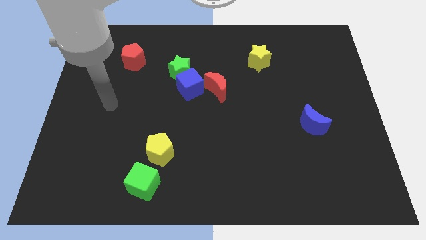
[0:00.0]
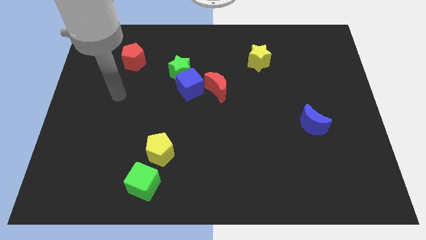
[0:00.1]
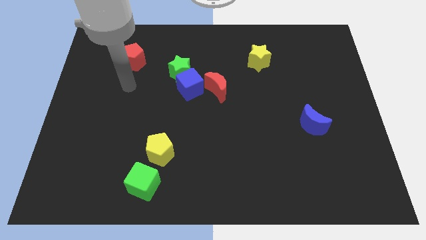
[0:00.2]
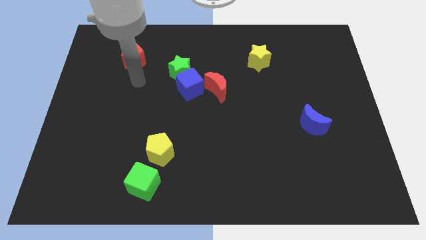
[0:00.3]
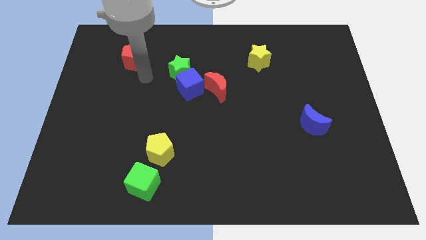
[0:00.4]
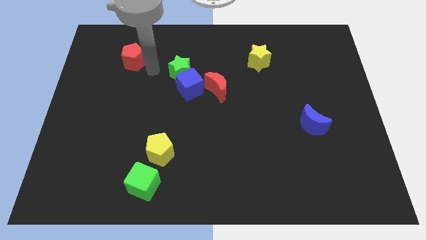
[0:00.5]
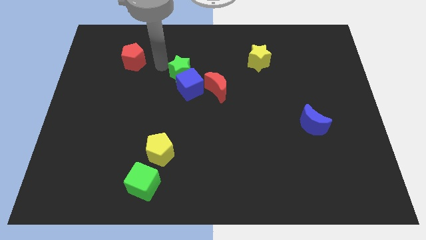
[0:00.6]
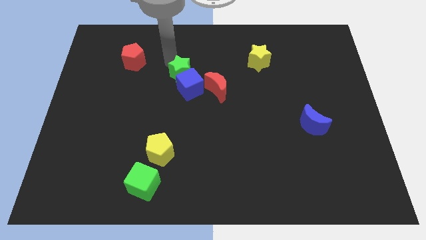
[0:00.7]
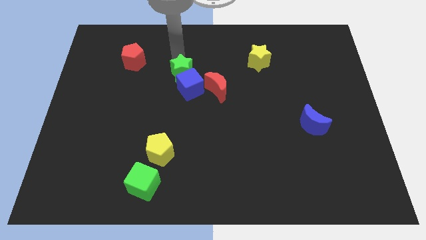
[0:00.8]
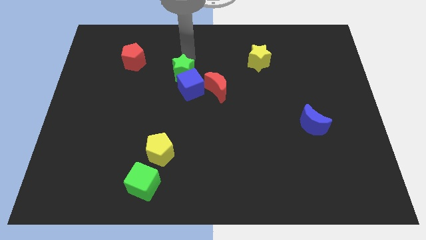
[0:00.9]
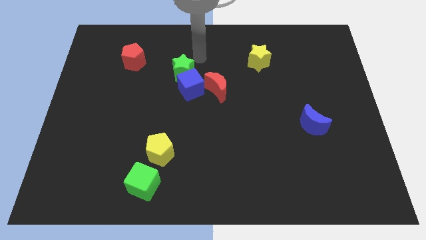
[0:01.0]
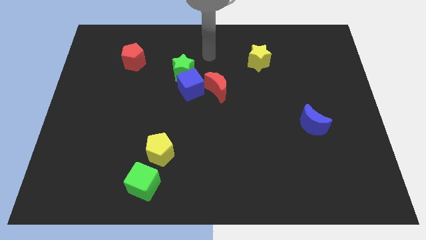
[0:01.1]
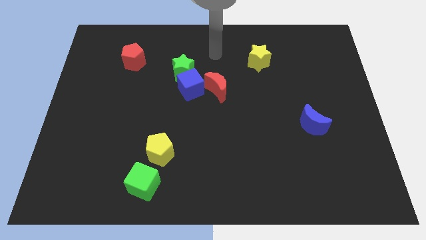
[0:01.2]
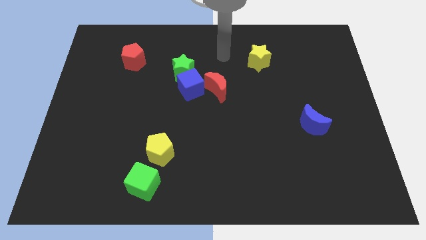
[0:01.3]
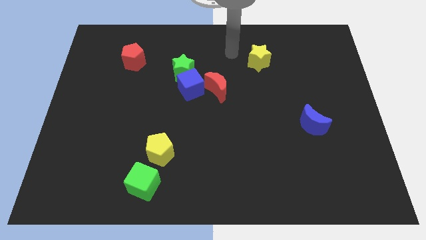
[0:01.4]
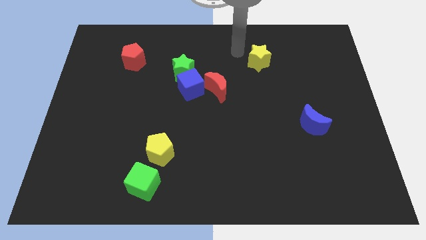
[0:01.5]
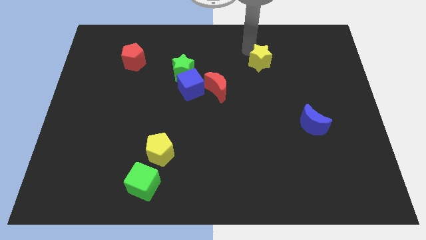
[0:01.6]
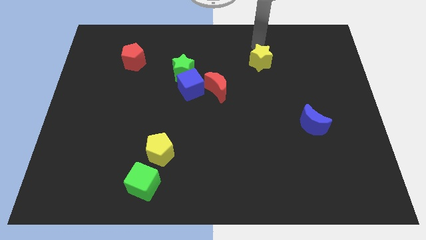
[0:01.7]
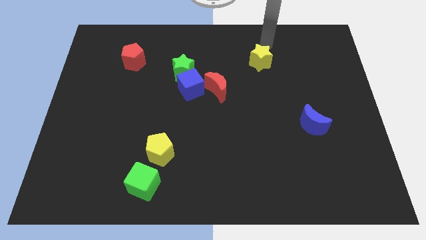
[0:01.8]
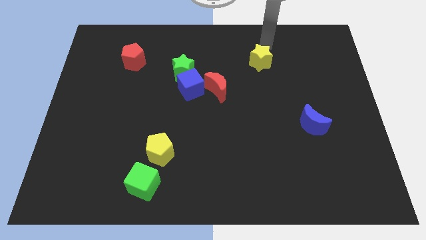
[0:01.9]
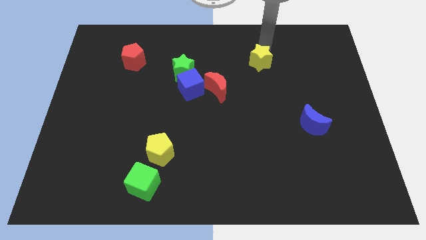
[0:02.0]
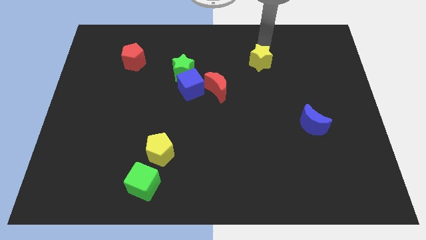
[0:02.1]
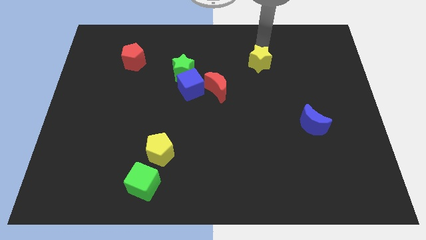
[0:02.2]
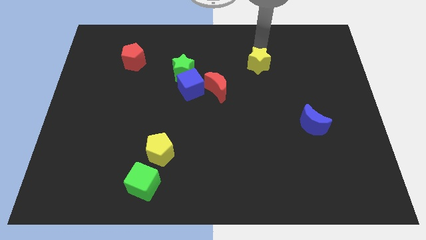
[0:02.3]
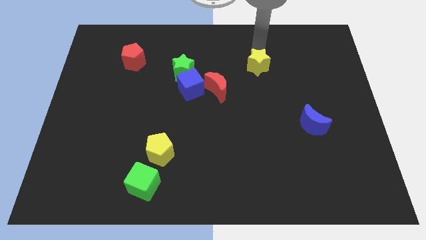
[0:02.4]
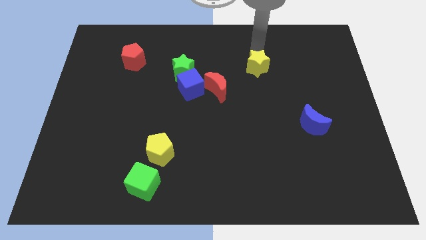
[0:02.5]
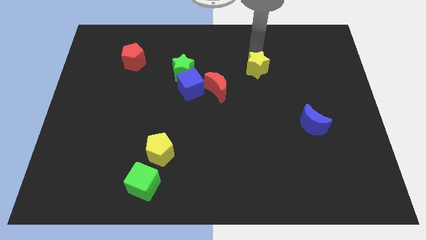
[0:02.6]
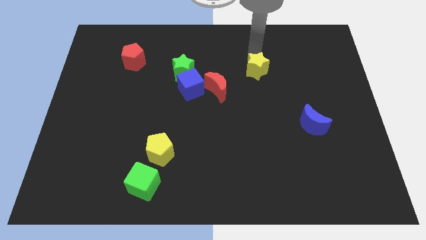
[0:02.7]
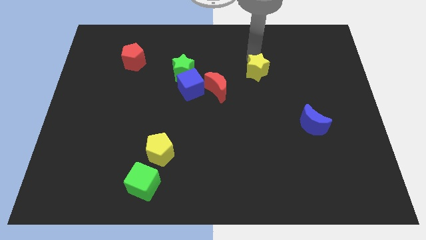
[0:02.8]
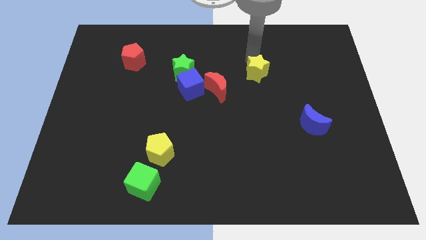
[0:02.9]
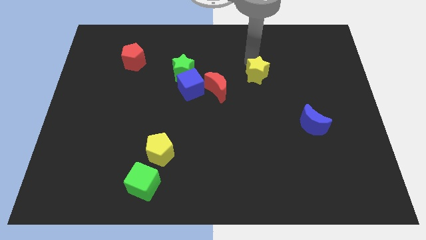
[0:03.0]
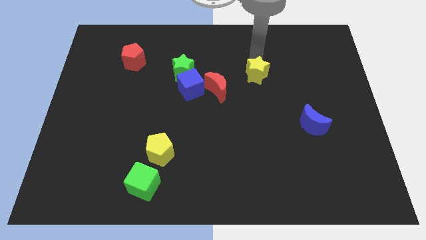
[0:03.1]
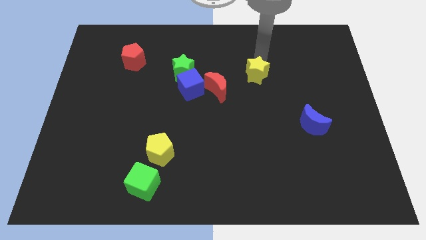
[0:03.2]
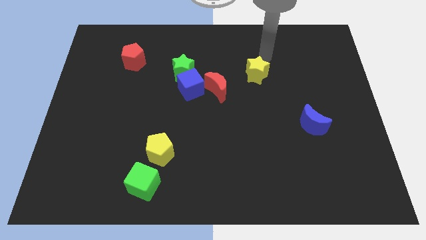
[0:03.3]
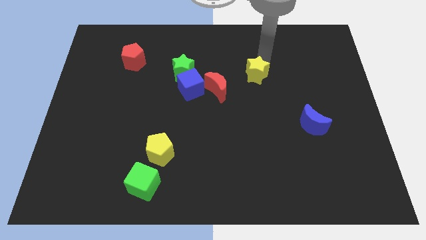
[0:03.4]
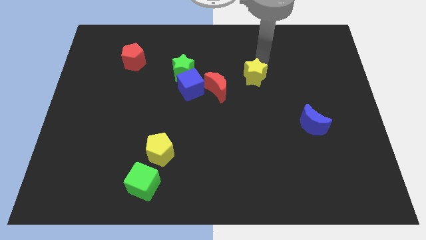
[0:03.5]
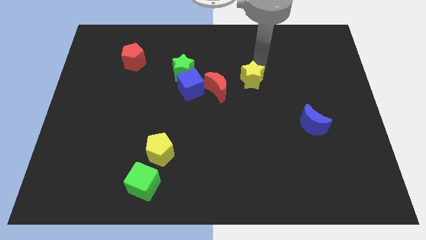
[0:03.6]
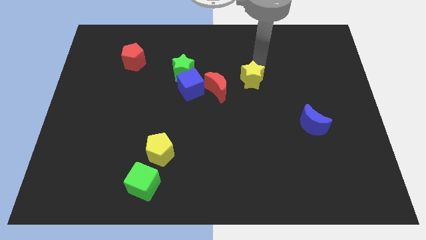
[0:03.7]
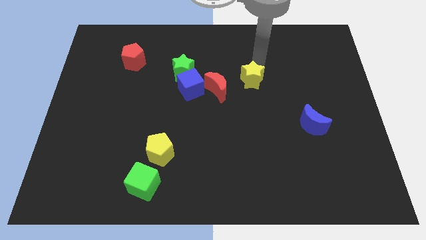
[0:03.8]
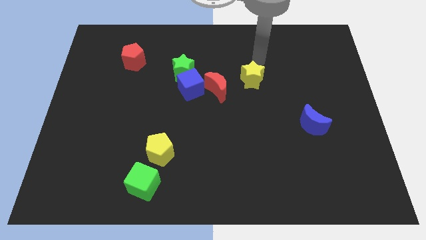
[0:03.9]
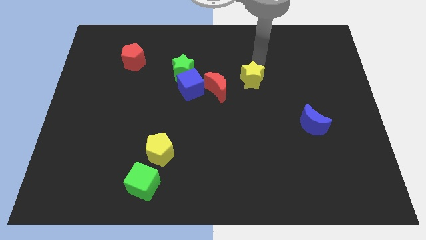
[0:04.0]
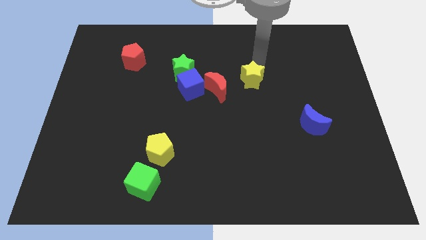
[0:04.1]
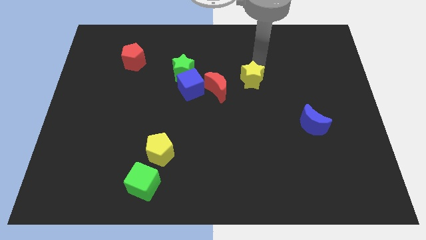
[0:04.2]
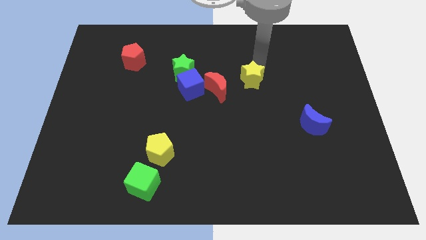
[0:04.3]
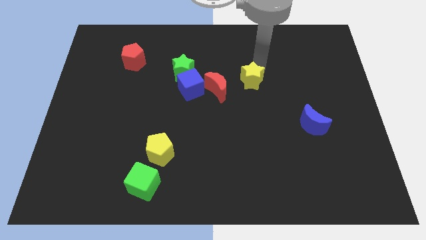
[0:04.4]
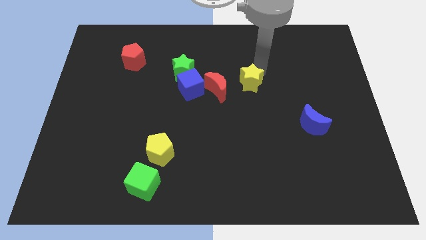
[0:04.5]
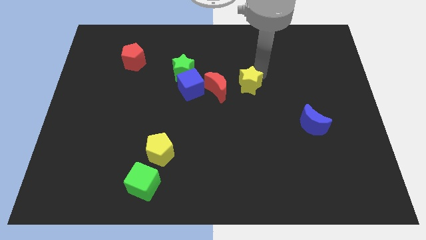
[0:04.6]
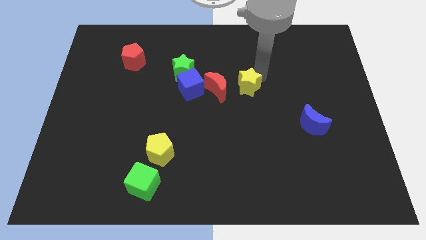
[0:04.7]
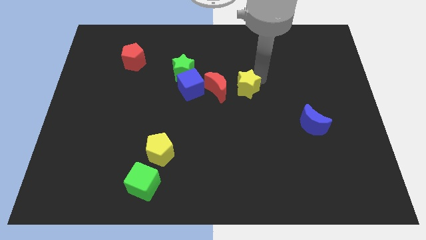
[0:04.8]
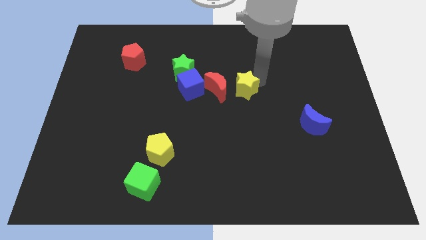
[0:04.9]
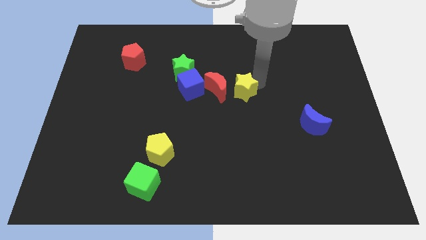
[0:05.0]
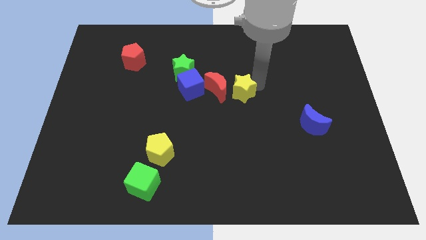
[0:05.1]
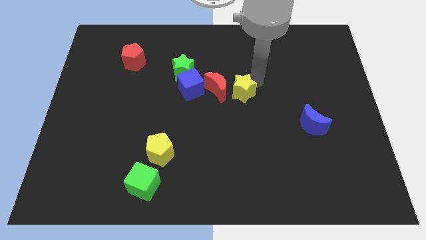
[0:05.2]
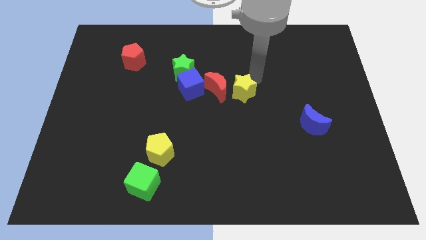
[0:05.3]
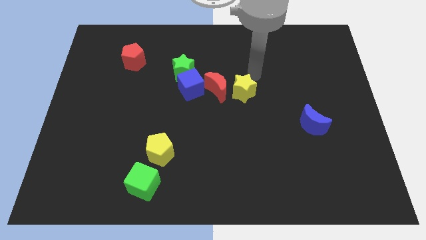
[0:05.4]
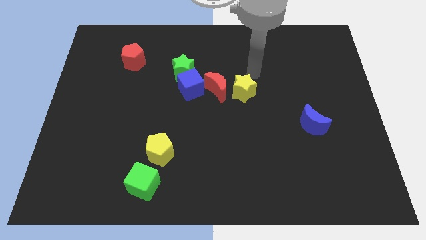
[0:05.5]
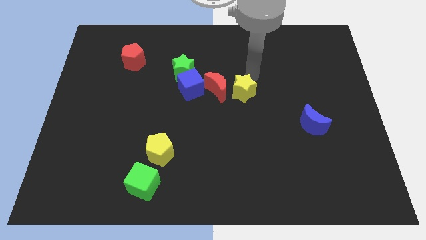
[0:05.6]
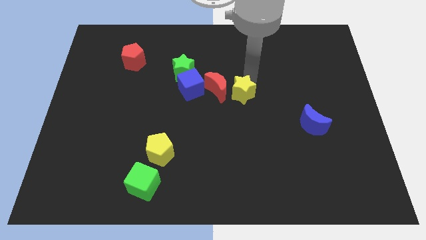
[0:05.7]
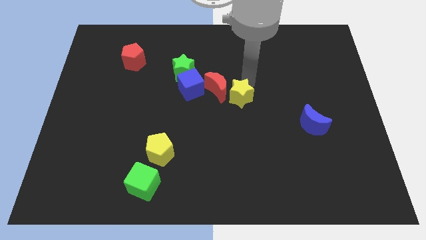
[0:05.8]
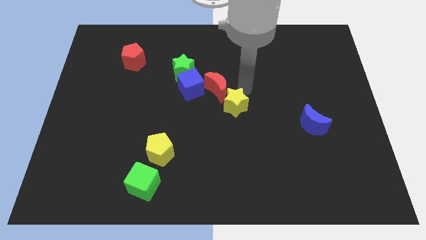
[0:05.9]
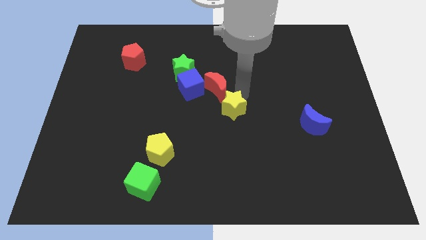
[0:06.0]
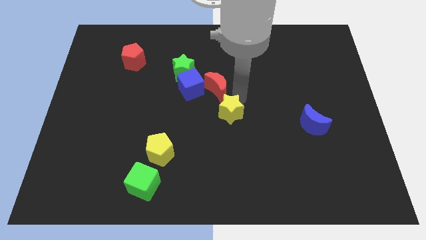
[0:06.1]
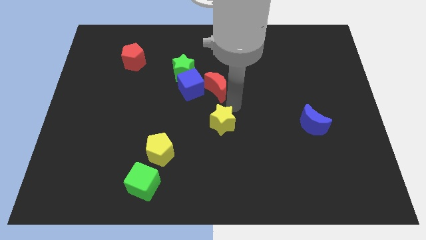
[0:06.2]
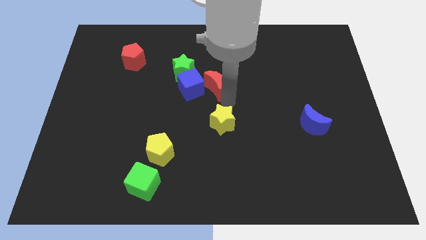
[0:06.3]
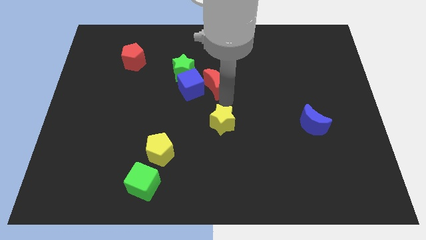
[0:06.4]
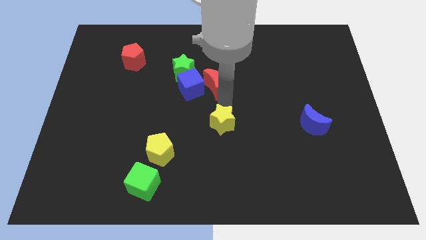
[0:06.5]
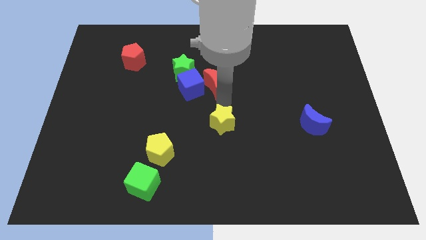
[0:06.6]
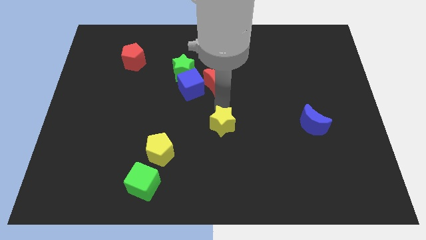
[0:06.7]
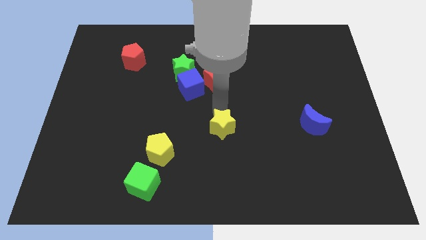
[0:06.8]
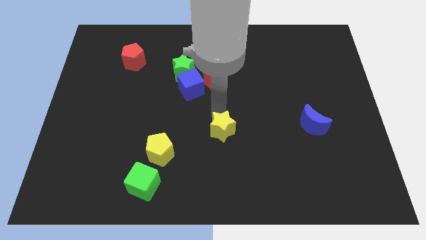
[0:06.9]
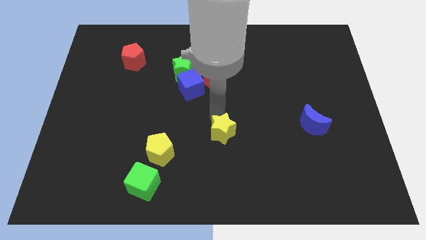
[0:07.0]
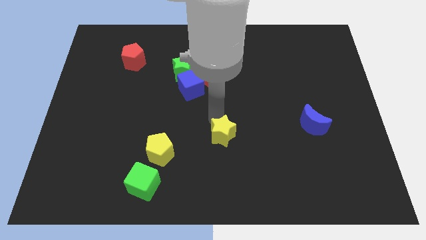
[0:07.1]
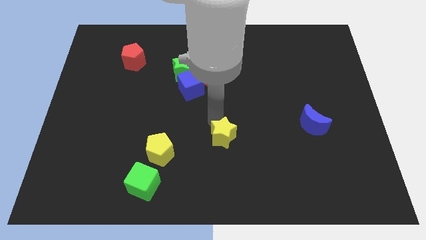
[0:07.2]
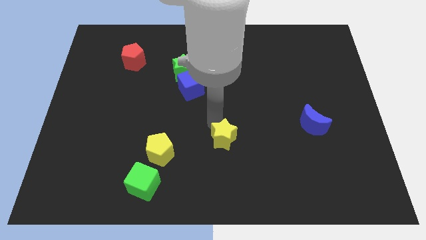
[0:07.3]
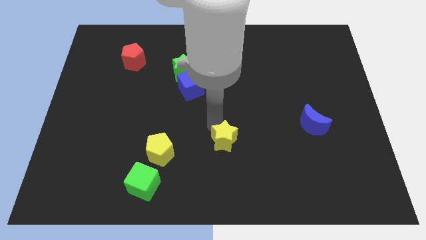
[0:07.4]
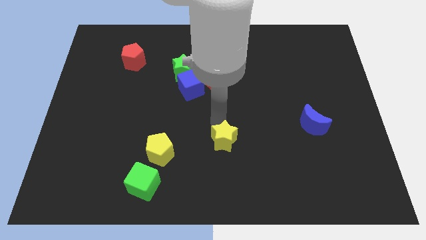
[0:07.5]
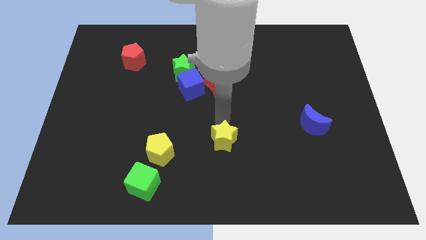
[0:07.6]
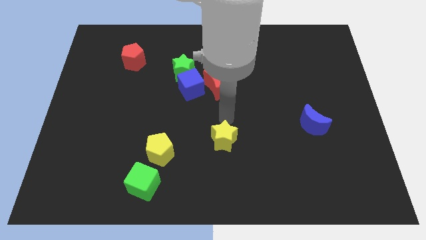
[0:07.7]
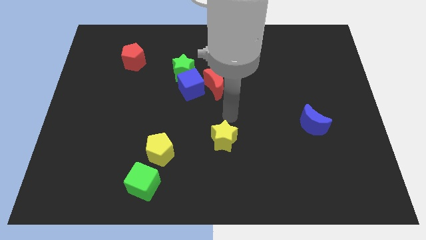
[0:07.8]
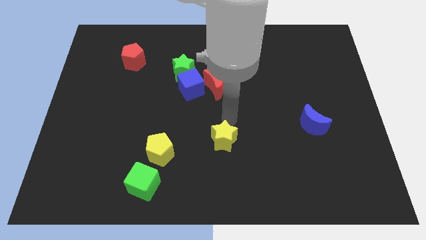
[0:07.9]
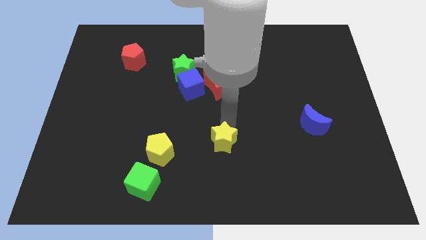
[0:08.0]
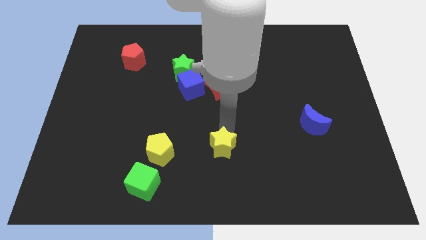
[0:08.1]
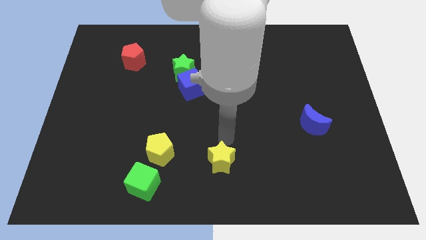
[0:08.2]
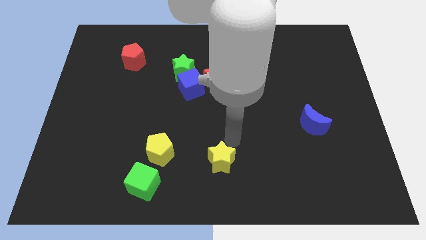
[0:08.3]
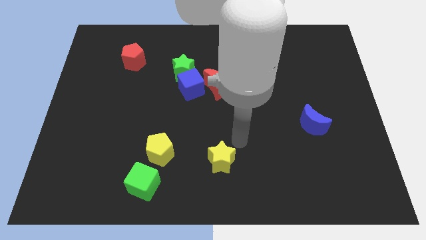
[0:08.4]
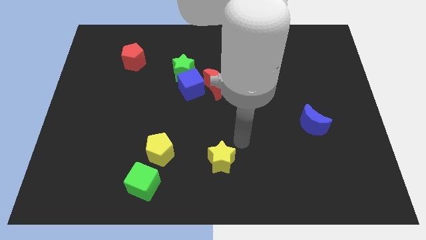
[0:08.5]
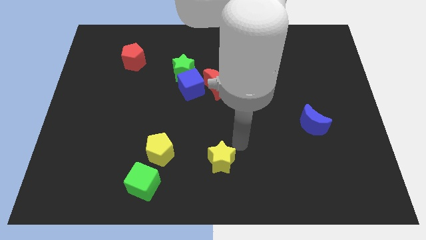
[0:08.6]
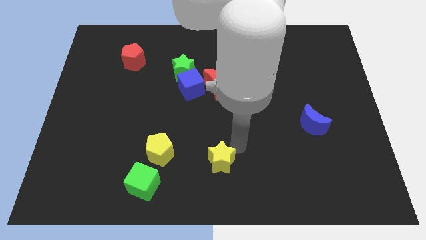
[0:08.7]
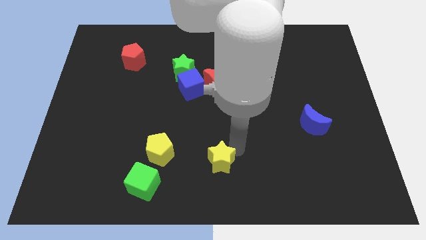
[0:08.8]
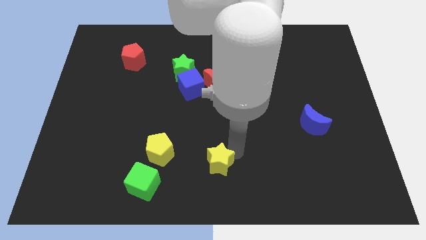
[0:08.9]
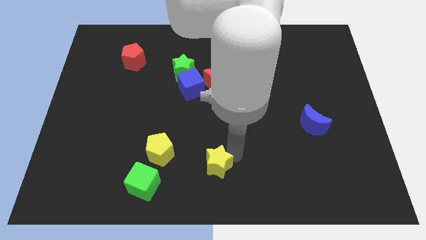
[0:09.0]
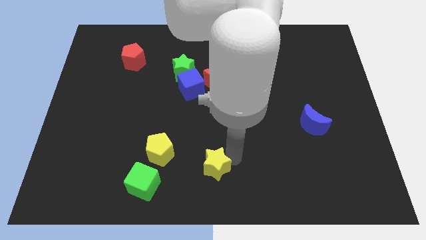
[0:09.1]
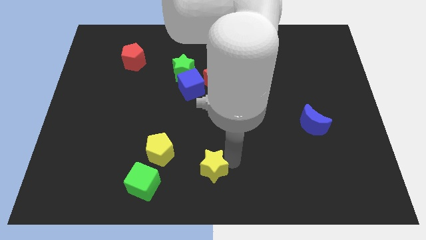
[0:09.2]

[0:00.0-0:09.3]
push the yellow star just right of the green cube
